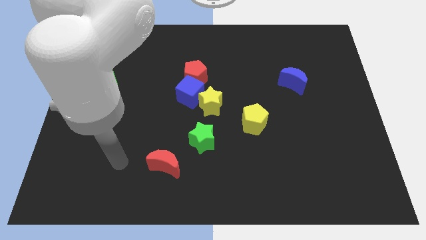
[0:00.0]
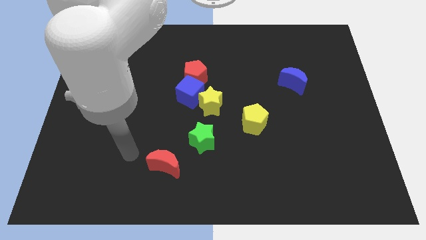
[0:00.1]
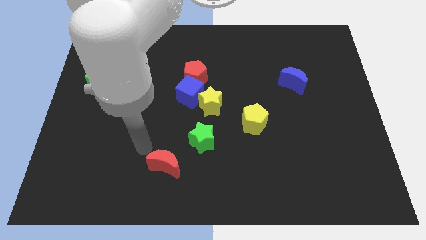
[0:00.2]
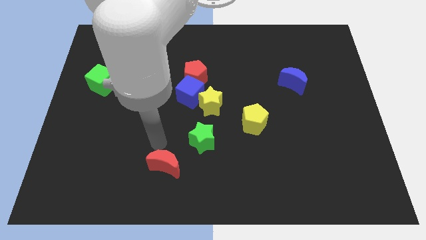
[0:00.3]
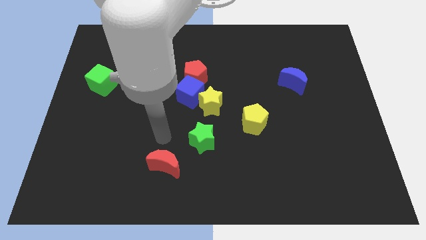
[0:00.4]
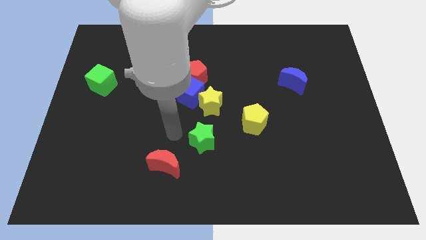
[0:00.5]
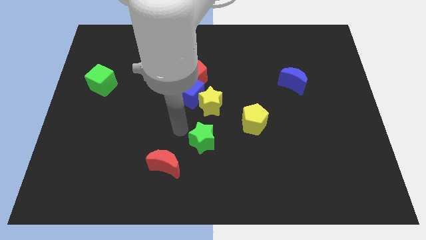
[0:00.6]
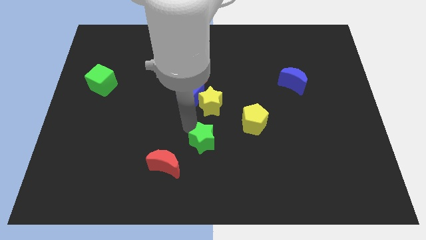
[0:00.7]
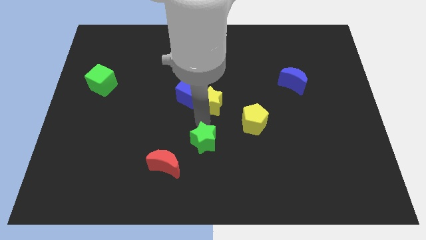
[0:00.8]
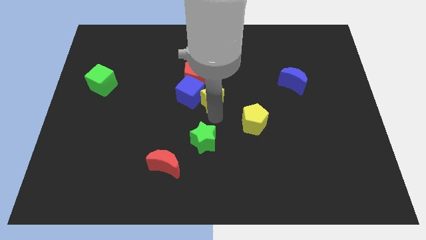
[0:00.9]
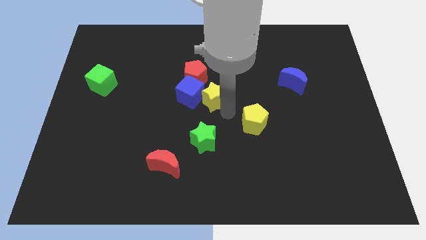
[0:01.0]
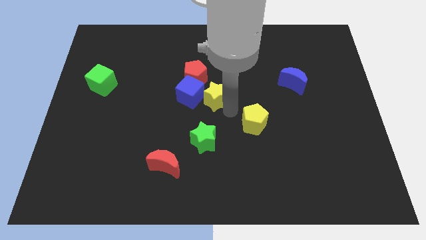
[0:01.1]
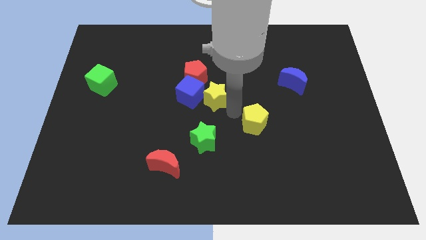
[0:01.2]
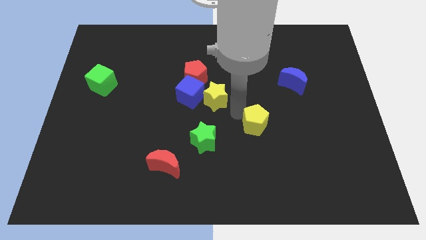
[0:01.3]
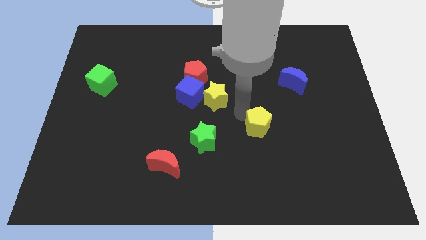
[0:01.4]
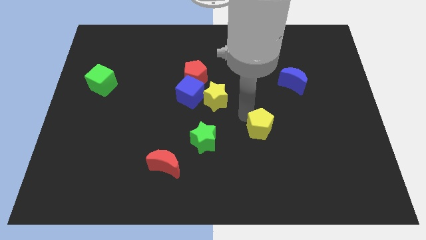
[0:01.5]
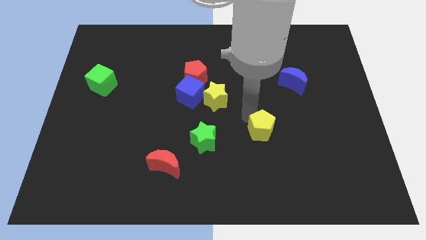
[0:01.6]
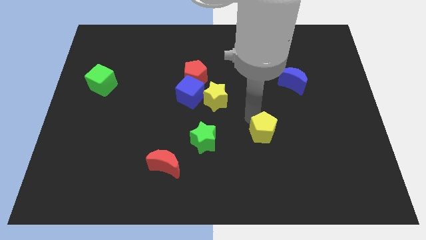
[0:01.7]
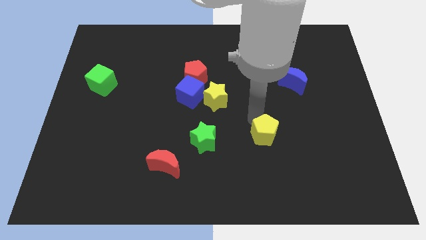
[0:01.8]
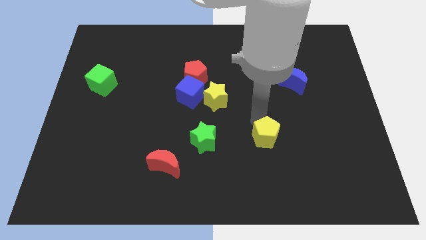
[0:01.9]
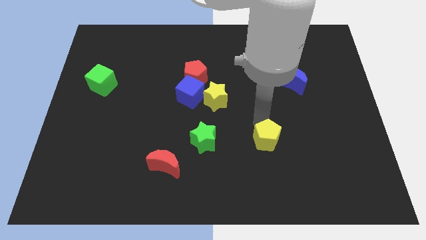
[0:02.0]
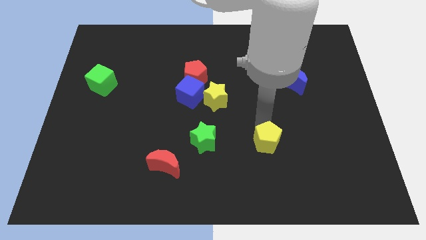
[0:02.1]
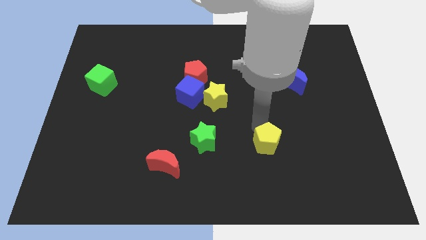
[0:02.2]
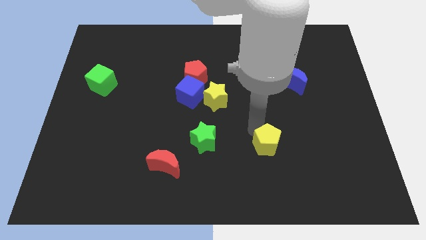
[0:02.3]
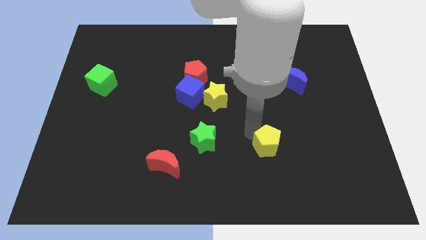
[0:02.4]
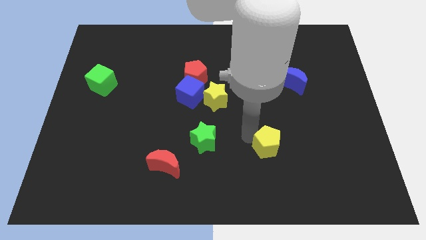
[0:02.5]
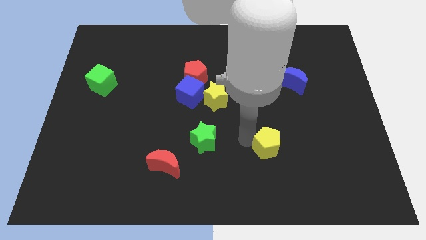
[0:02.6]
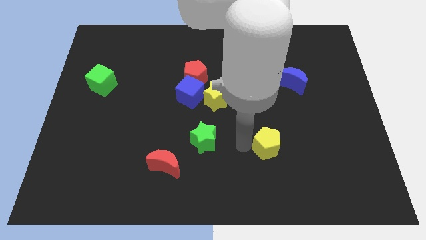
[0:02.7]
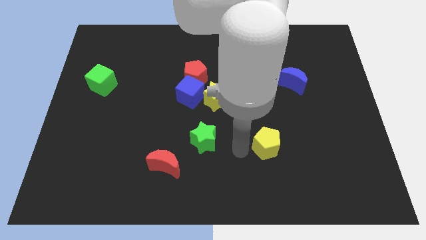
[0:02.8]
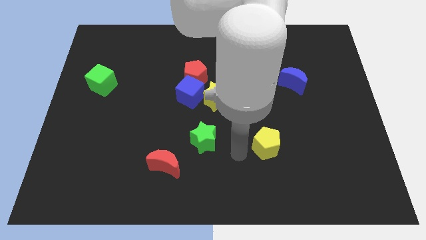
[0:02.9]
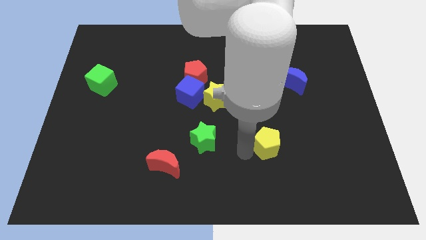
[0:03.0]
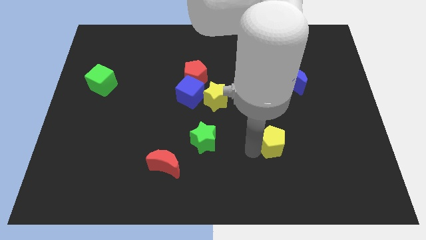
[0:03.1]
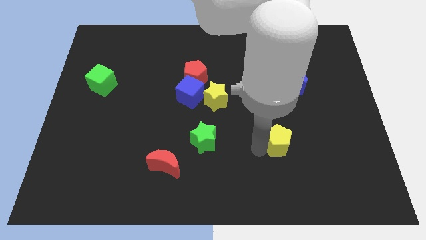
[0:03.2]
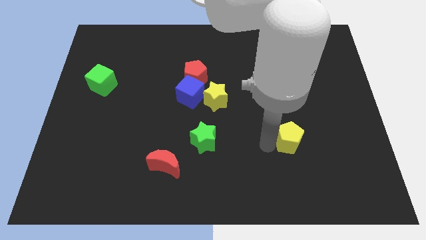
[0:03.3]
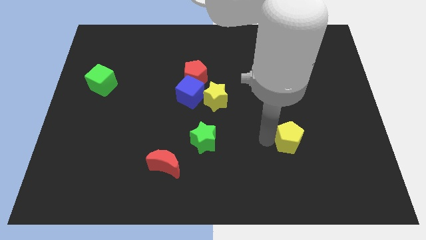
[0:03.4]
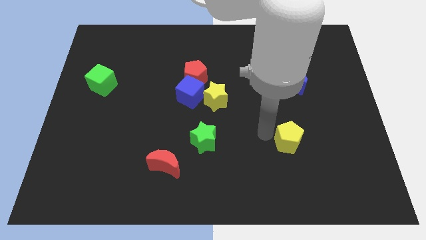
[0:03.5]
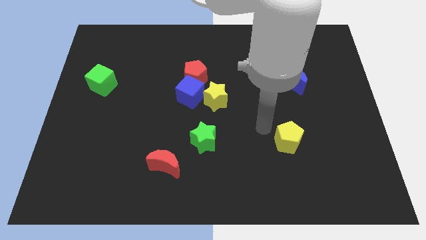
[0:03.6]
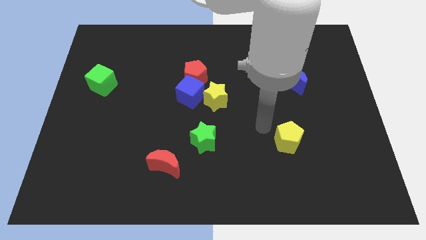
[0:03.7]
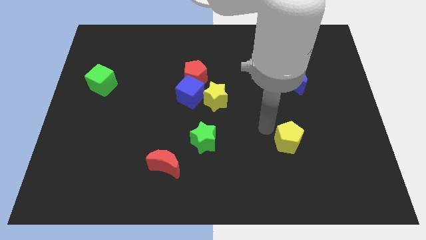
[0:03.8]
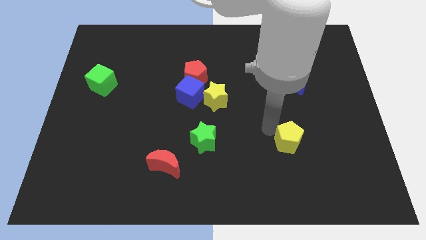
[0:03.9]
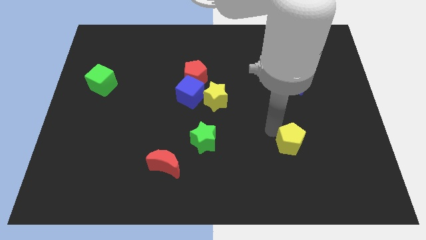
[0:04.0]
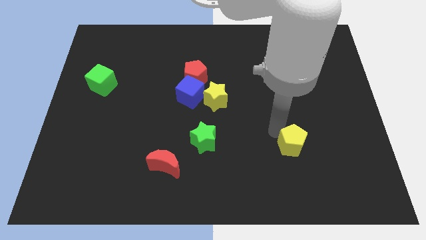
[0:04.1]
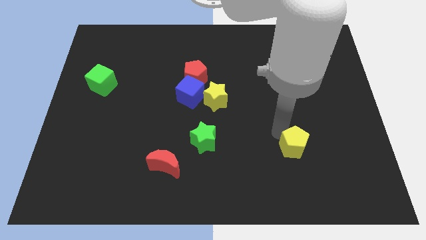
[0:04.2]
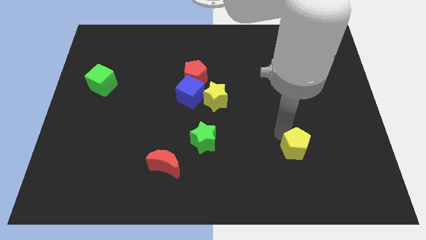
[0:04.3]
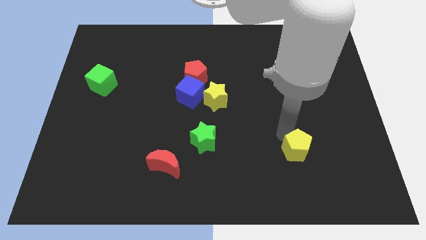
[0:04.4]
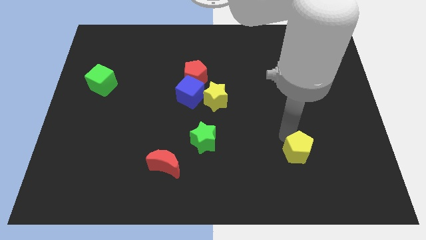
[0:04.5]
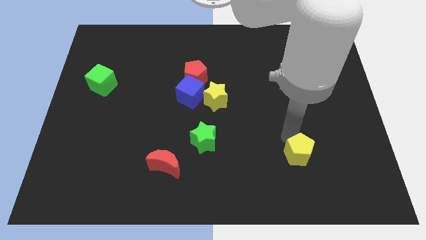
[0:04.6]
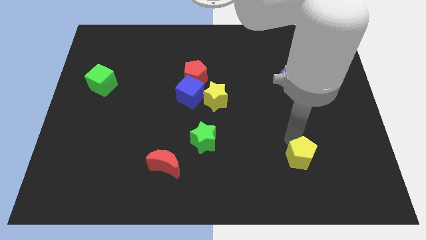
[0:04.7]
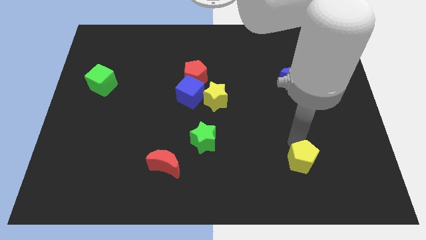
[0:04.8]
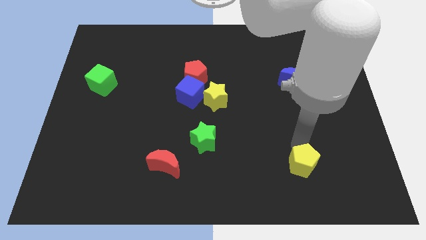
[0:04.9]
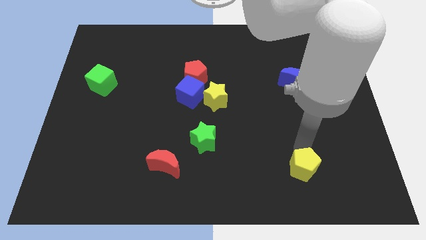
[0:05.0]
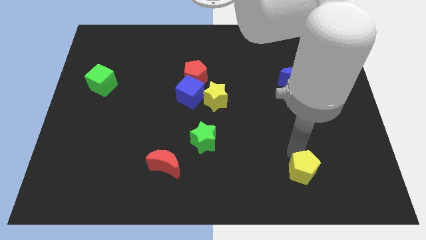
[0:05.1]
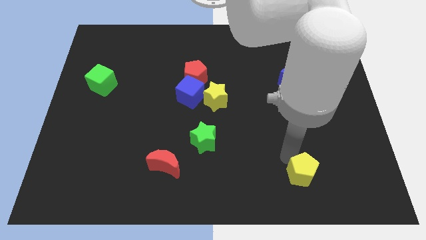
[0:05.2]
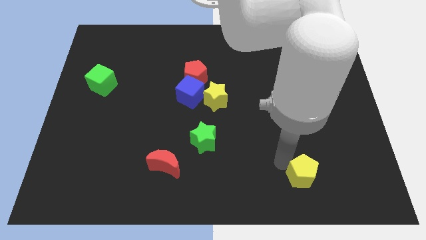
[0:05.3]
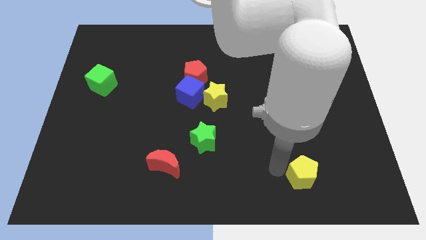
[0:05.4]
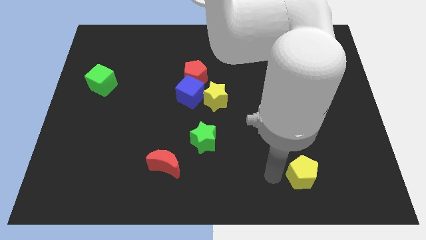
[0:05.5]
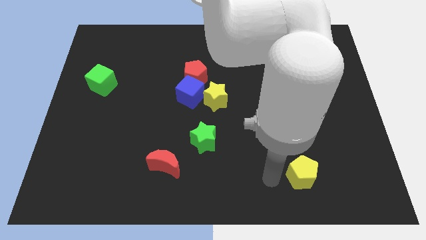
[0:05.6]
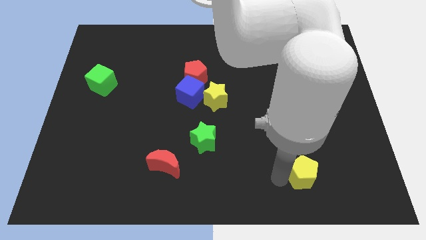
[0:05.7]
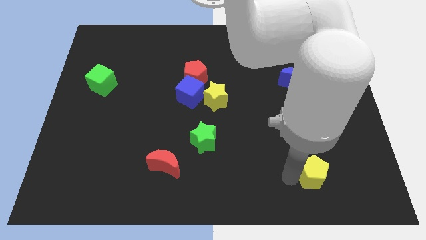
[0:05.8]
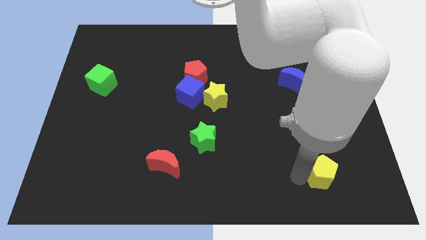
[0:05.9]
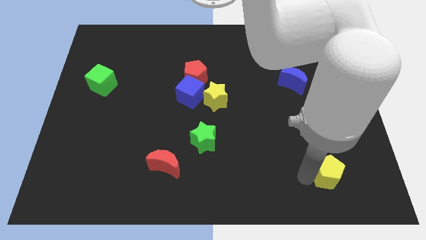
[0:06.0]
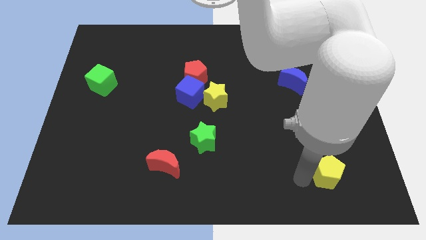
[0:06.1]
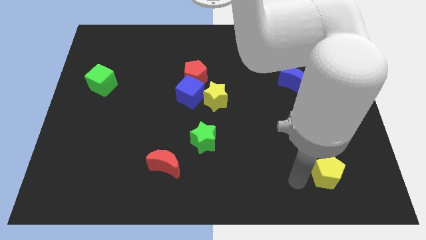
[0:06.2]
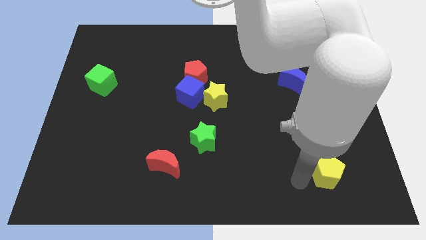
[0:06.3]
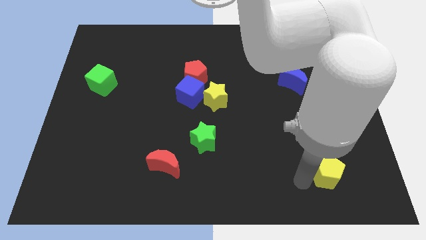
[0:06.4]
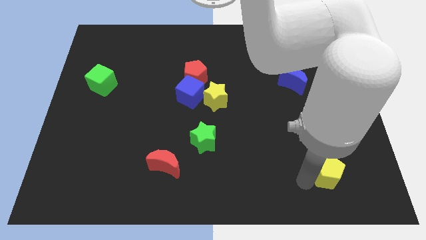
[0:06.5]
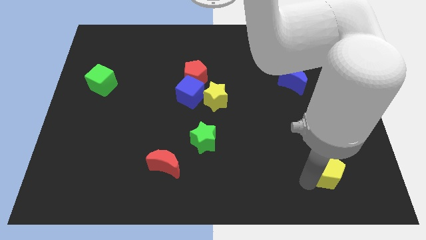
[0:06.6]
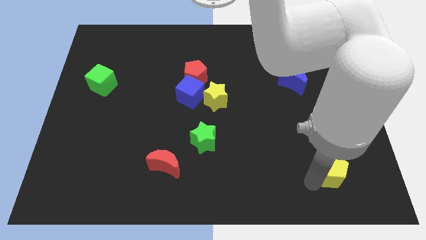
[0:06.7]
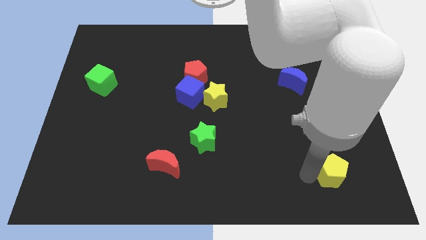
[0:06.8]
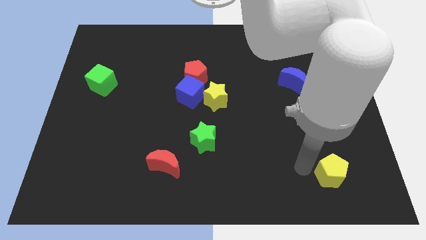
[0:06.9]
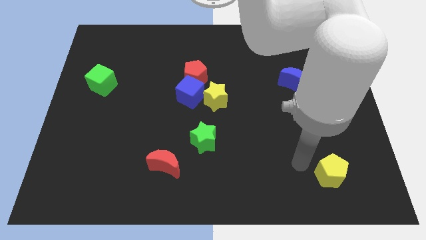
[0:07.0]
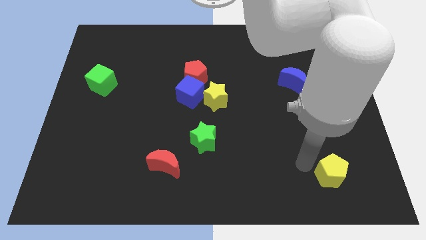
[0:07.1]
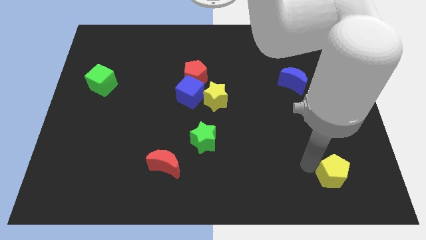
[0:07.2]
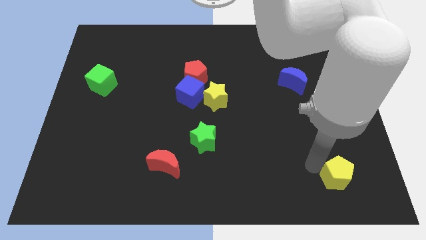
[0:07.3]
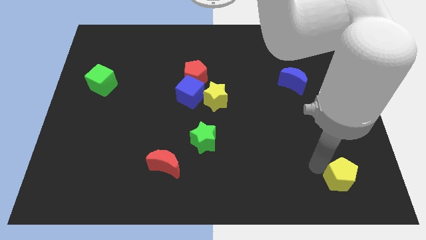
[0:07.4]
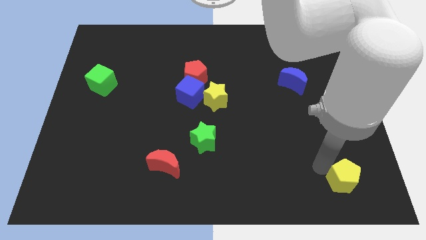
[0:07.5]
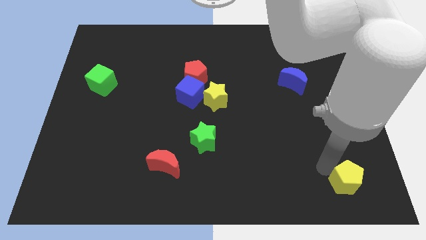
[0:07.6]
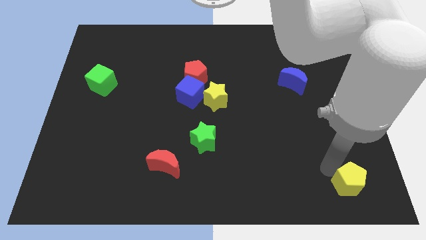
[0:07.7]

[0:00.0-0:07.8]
put the yellow pentagon to the bottom right of the board
